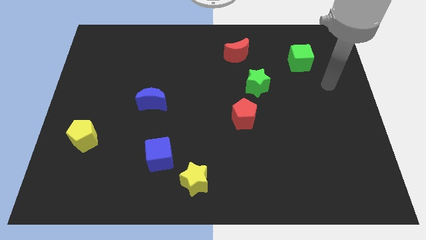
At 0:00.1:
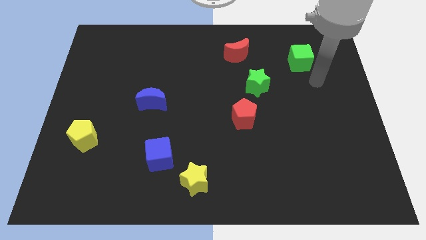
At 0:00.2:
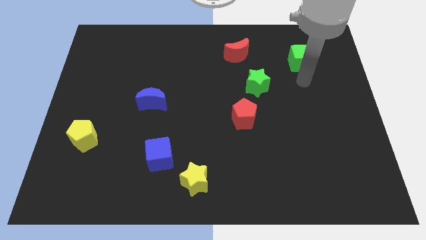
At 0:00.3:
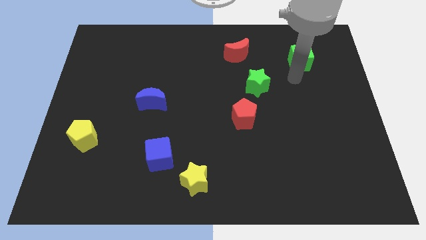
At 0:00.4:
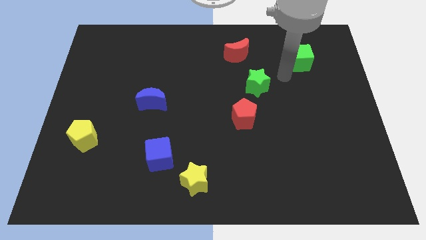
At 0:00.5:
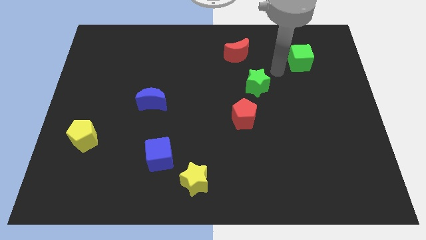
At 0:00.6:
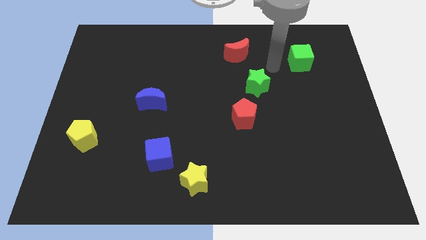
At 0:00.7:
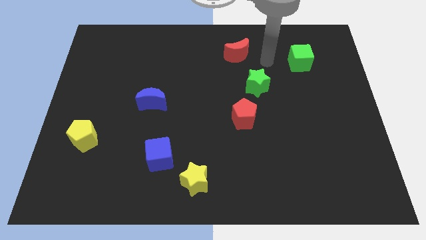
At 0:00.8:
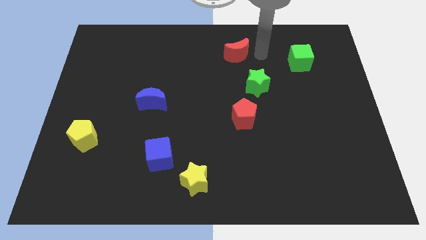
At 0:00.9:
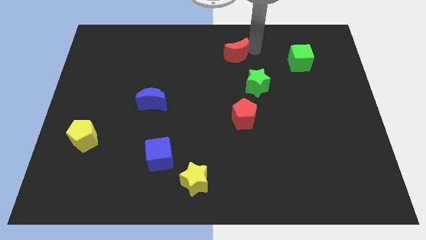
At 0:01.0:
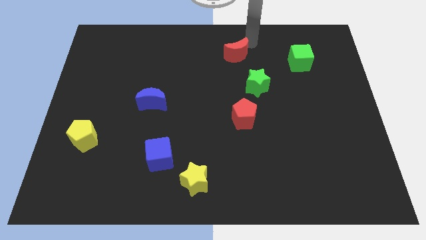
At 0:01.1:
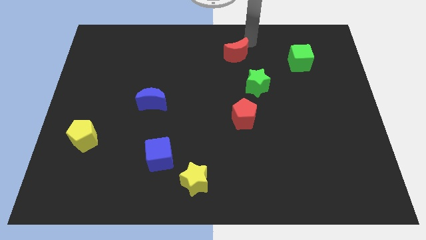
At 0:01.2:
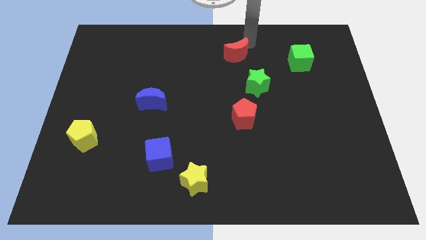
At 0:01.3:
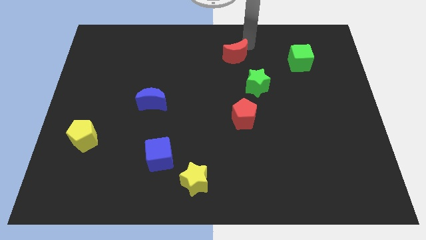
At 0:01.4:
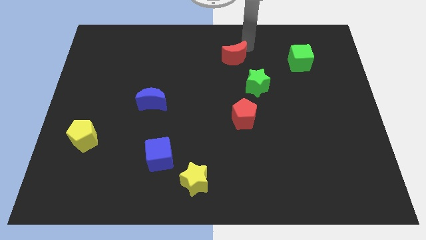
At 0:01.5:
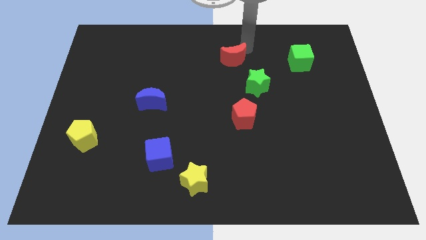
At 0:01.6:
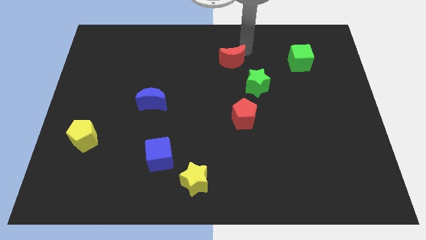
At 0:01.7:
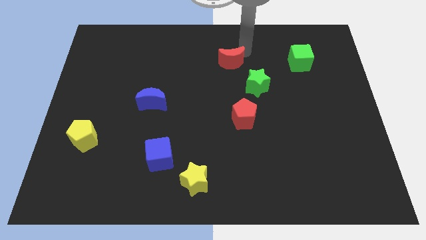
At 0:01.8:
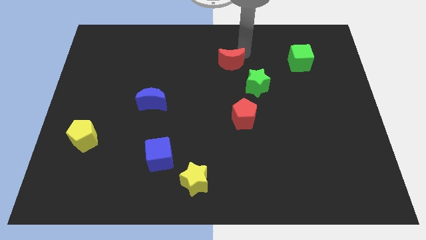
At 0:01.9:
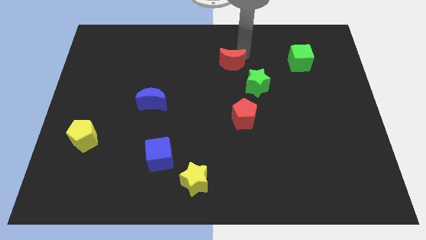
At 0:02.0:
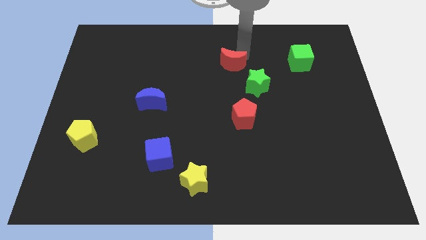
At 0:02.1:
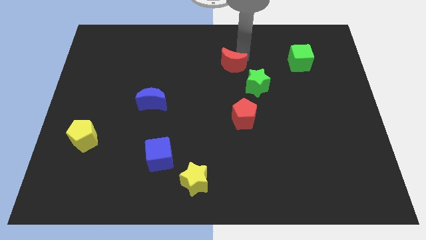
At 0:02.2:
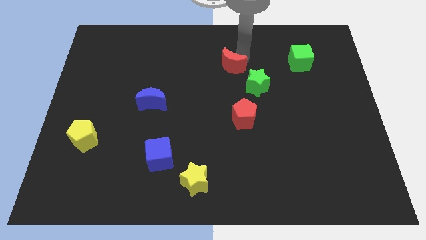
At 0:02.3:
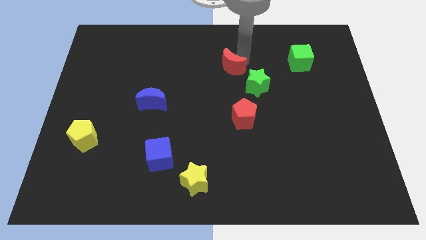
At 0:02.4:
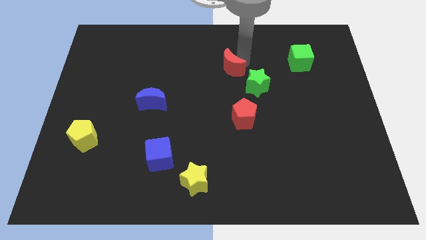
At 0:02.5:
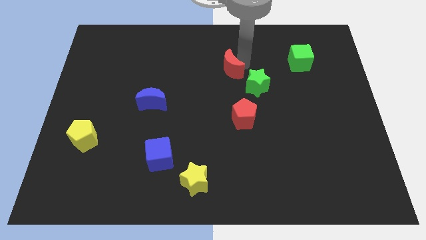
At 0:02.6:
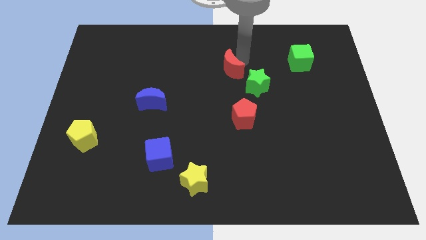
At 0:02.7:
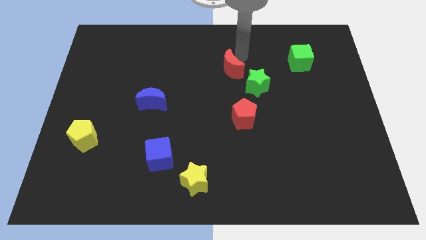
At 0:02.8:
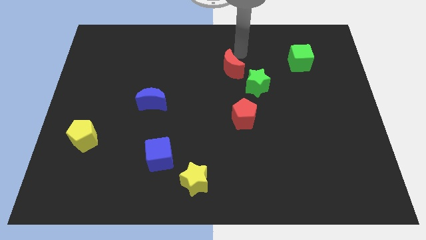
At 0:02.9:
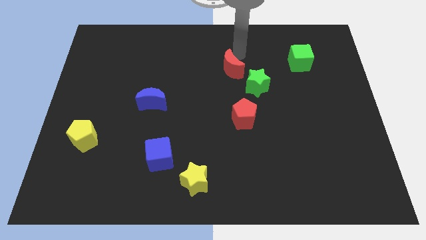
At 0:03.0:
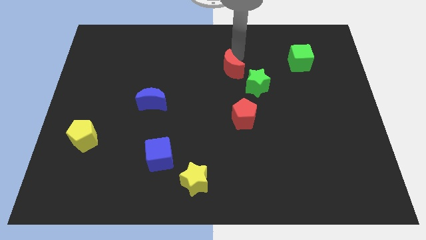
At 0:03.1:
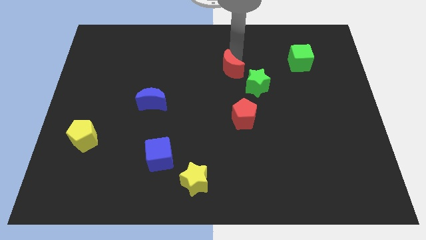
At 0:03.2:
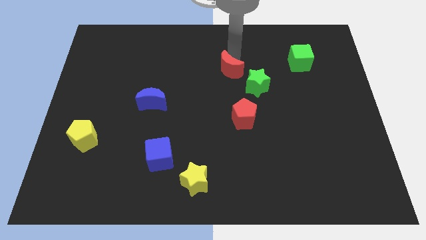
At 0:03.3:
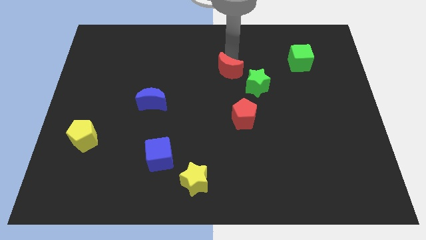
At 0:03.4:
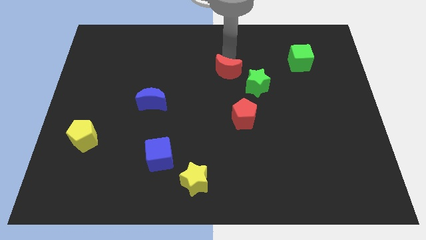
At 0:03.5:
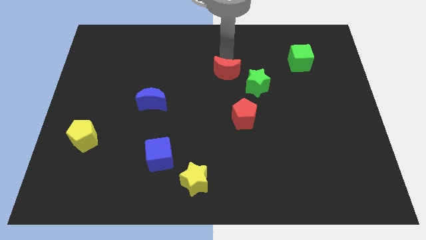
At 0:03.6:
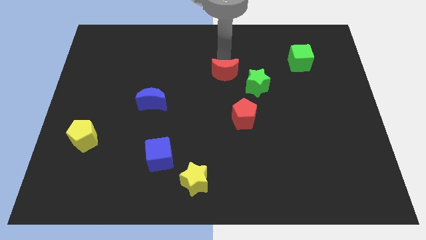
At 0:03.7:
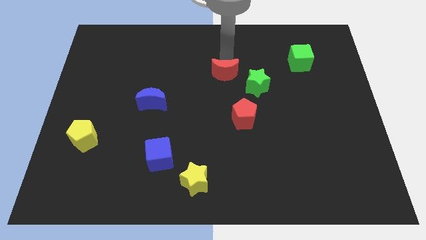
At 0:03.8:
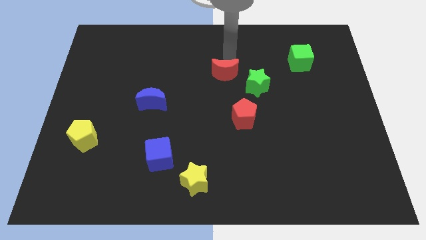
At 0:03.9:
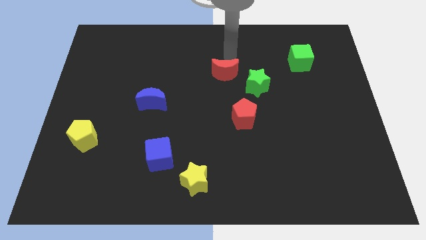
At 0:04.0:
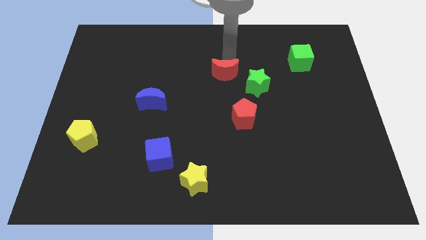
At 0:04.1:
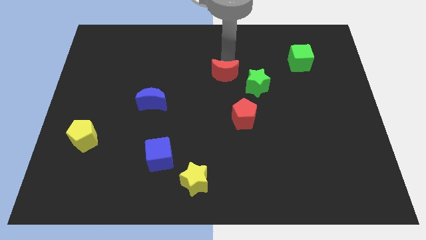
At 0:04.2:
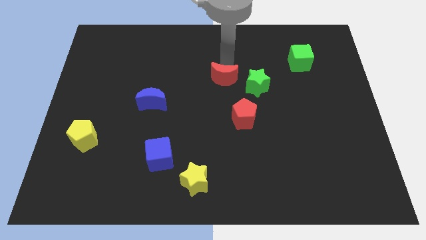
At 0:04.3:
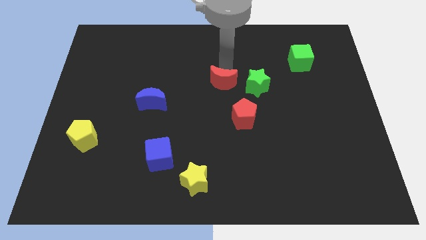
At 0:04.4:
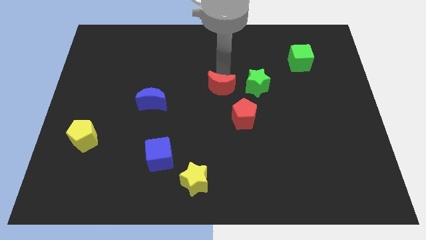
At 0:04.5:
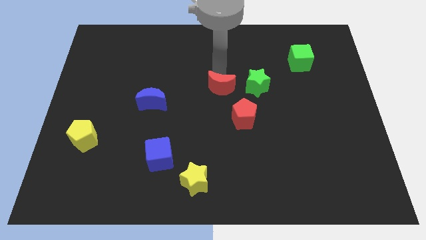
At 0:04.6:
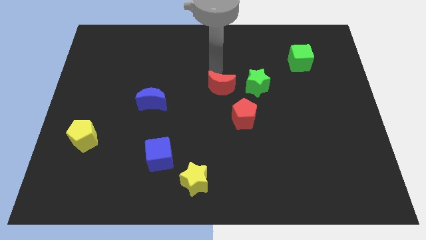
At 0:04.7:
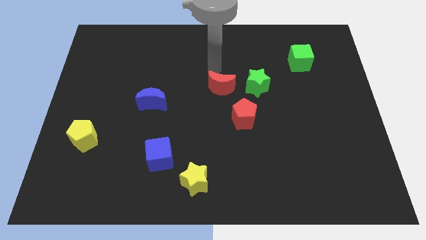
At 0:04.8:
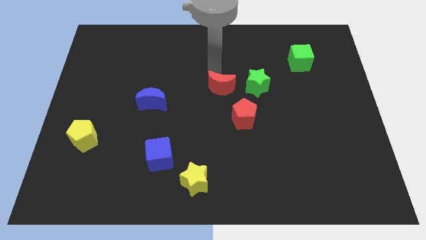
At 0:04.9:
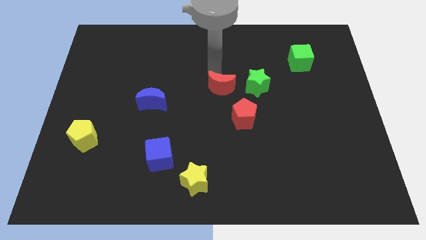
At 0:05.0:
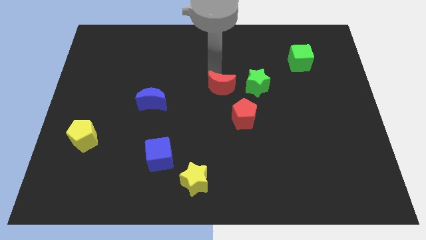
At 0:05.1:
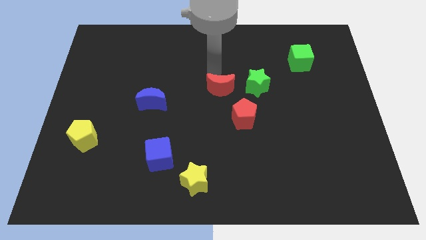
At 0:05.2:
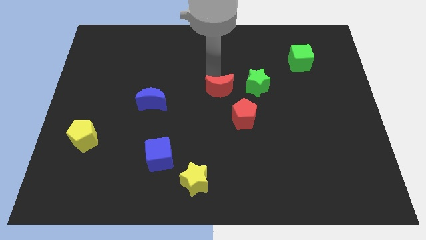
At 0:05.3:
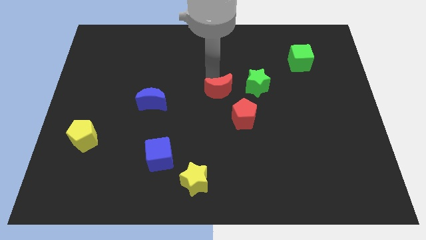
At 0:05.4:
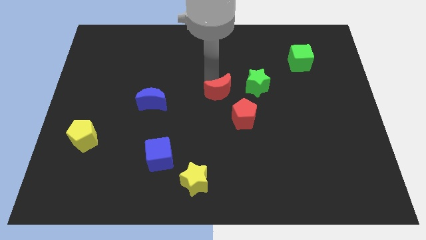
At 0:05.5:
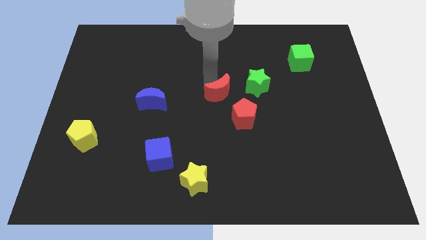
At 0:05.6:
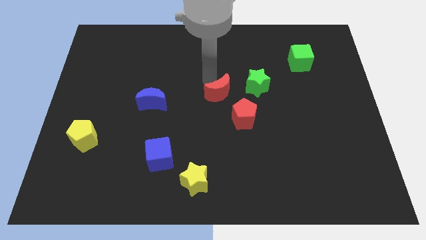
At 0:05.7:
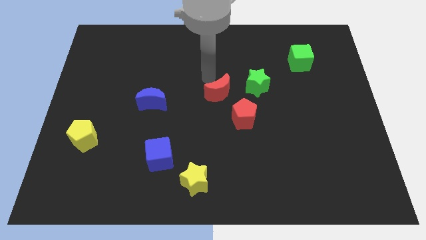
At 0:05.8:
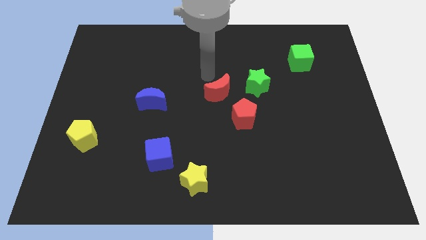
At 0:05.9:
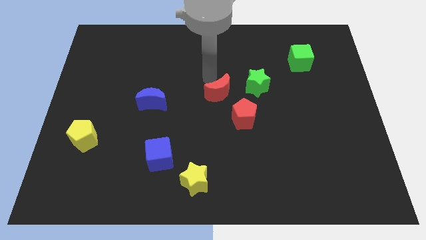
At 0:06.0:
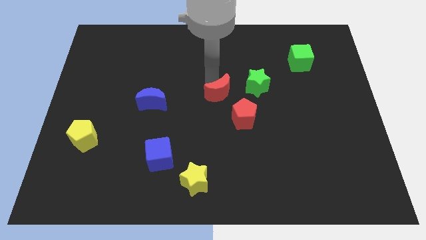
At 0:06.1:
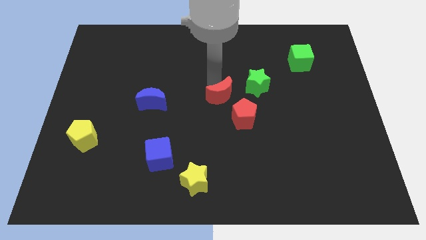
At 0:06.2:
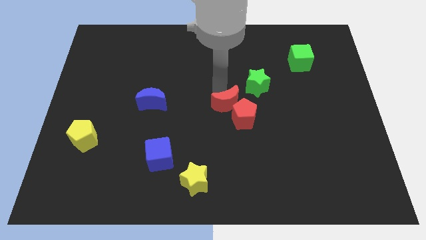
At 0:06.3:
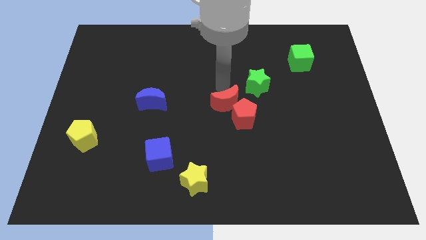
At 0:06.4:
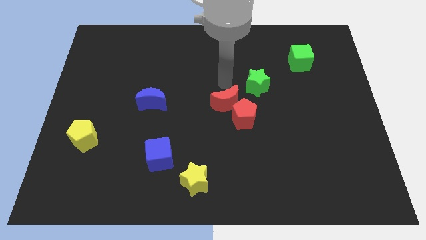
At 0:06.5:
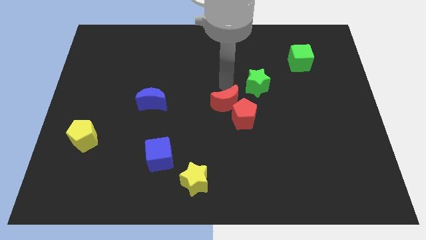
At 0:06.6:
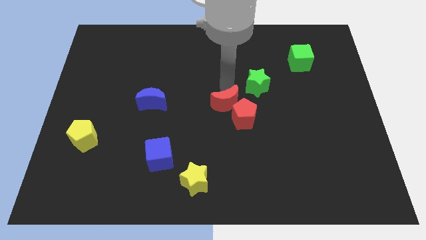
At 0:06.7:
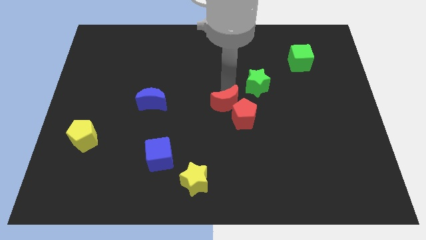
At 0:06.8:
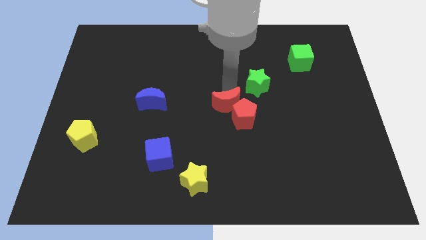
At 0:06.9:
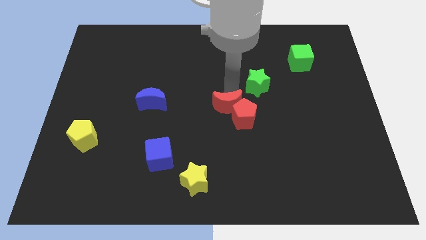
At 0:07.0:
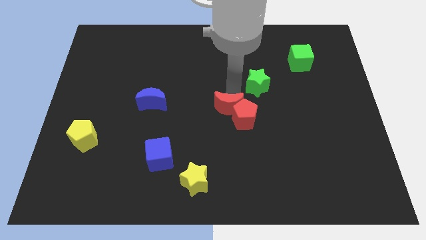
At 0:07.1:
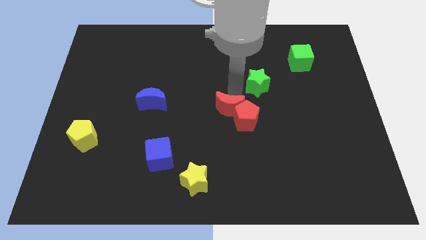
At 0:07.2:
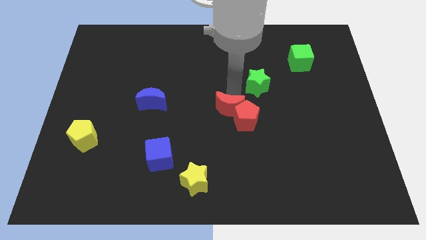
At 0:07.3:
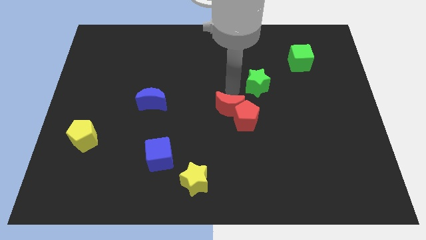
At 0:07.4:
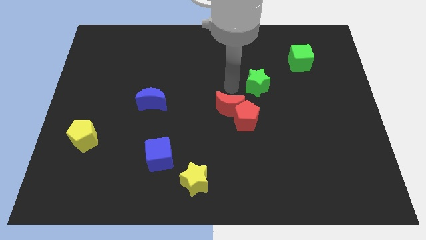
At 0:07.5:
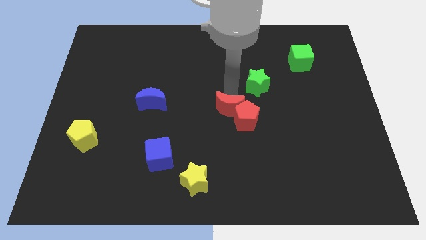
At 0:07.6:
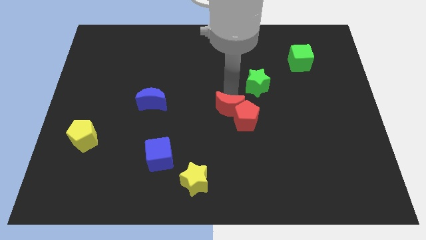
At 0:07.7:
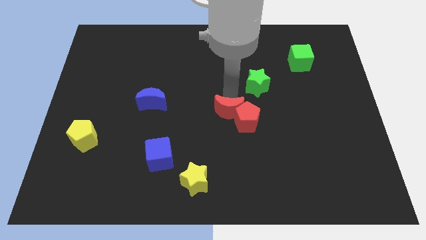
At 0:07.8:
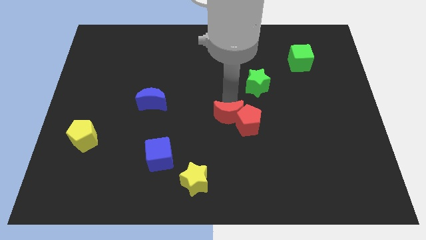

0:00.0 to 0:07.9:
move the red moon downwards

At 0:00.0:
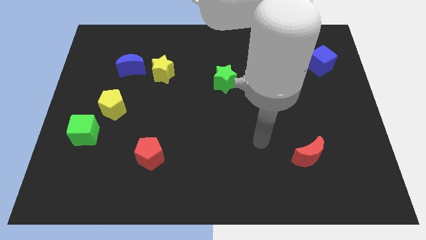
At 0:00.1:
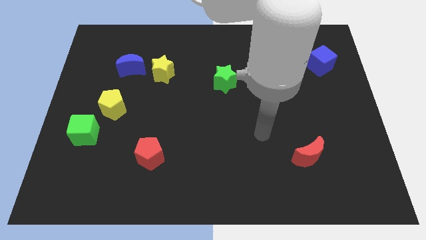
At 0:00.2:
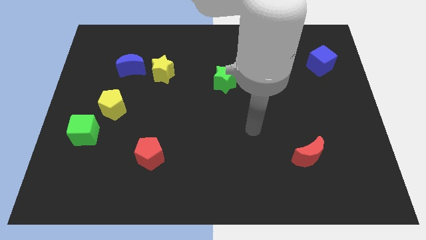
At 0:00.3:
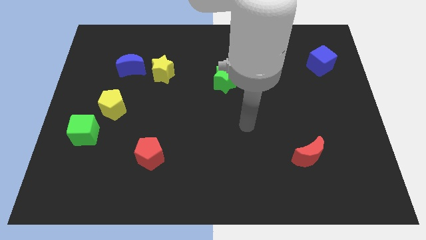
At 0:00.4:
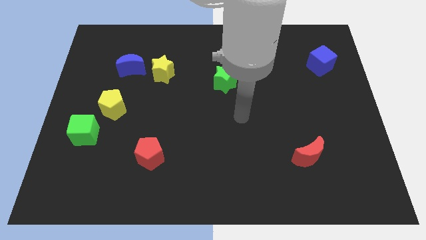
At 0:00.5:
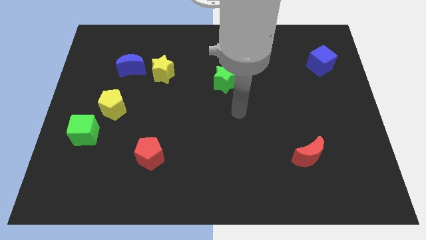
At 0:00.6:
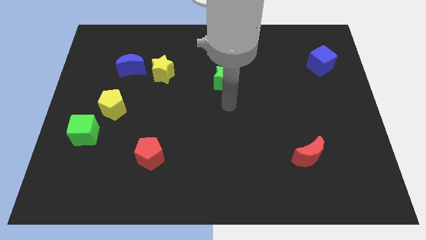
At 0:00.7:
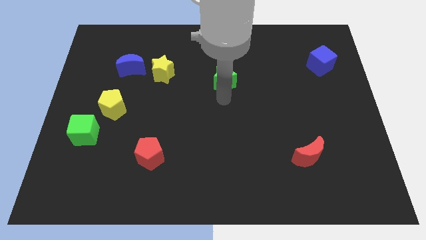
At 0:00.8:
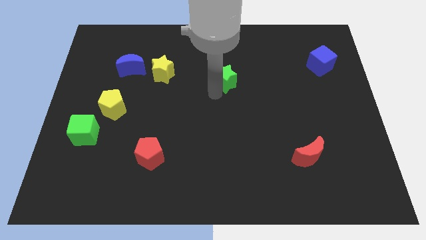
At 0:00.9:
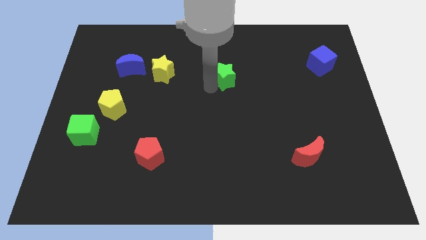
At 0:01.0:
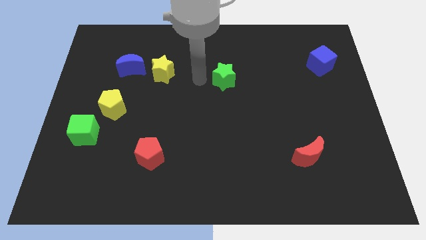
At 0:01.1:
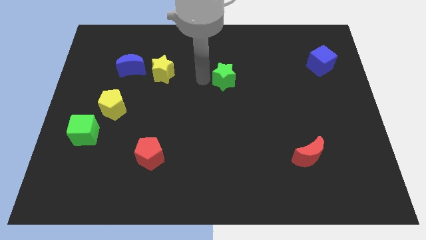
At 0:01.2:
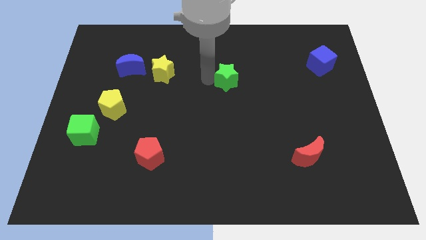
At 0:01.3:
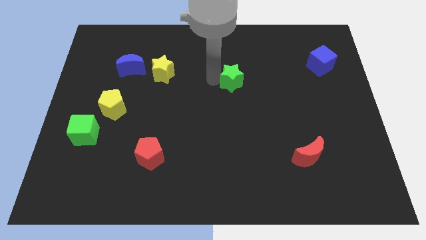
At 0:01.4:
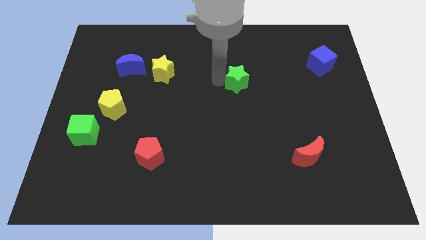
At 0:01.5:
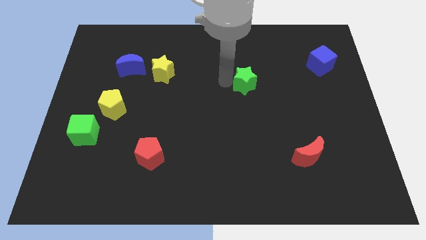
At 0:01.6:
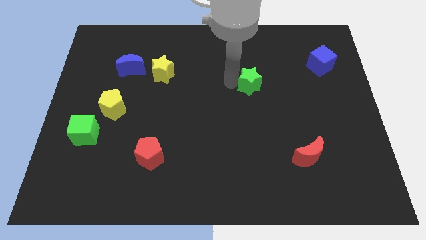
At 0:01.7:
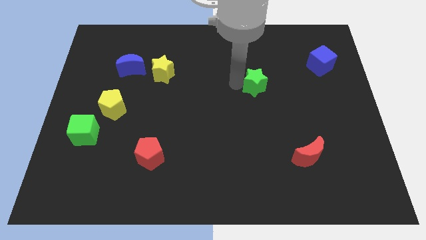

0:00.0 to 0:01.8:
slightly slide the green star right
